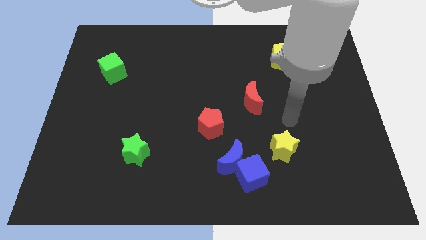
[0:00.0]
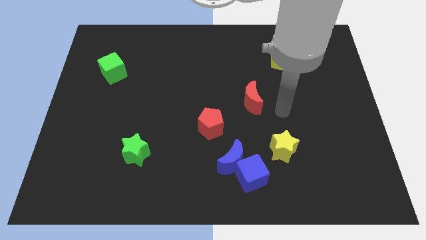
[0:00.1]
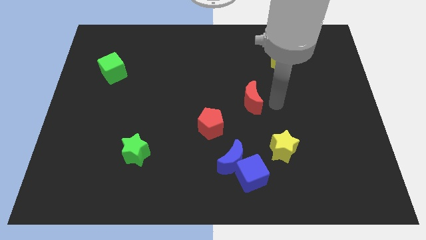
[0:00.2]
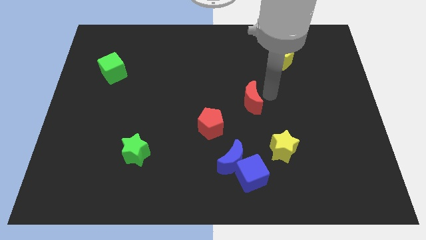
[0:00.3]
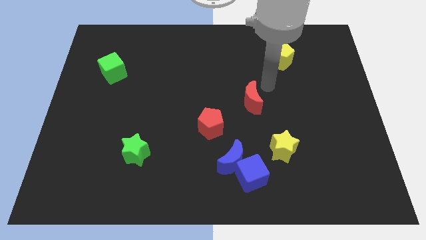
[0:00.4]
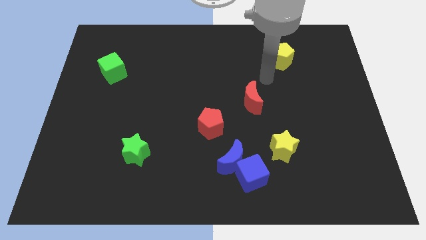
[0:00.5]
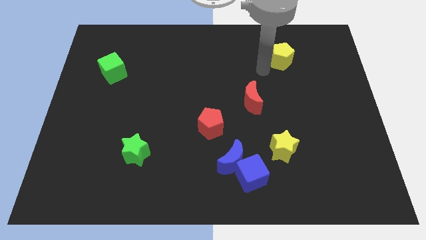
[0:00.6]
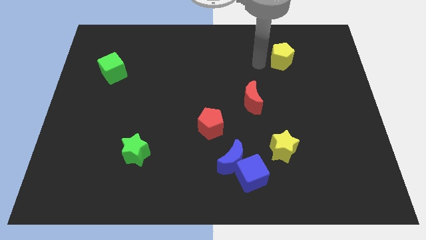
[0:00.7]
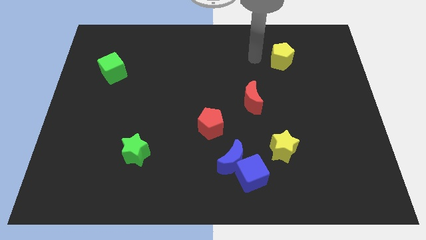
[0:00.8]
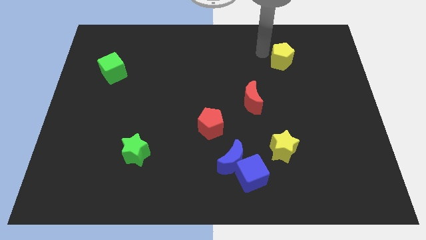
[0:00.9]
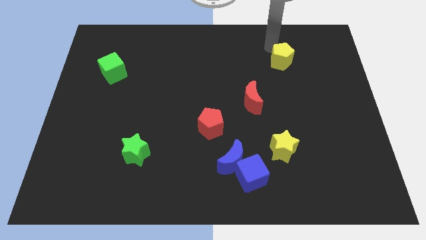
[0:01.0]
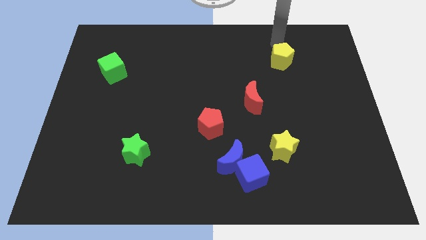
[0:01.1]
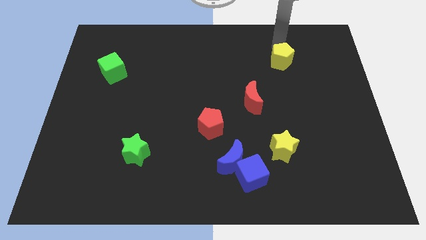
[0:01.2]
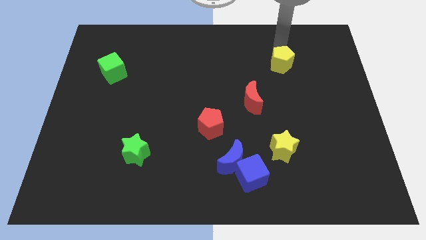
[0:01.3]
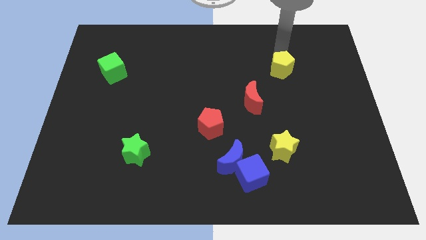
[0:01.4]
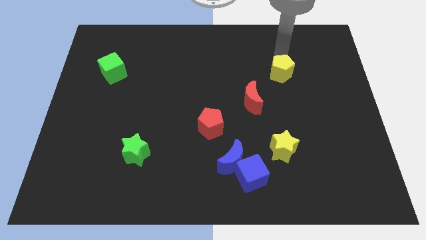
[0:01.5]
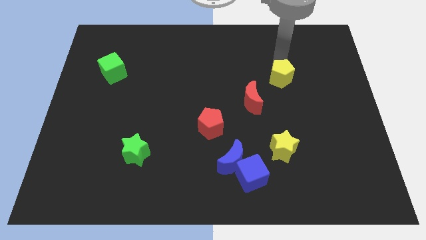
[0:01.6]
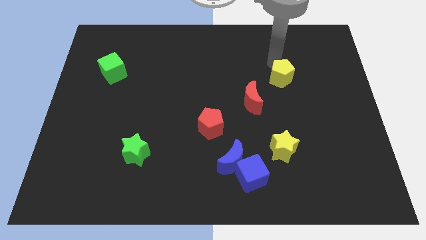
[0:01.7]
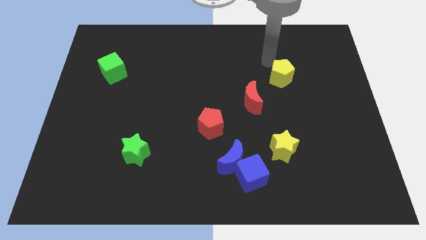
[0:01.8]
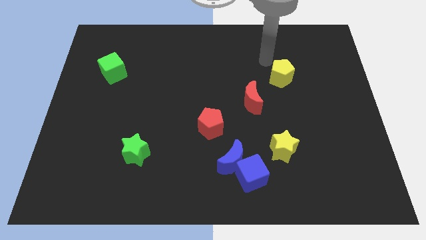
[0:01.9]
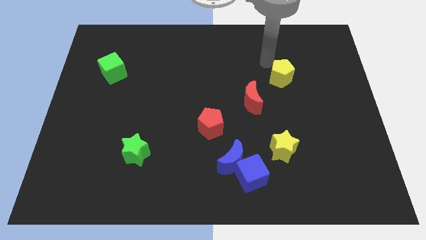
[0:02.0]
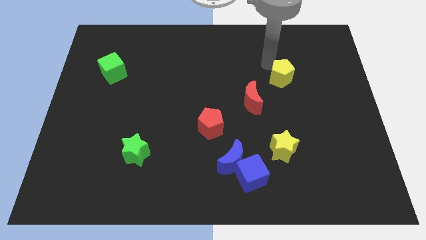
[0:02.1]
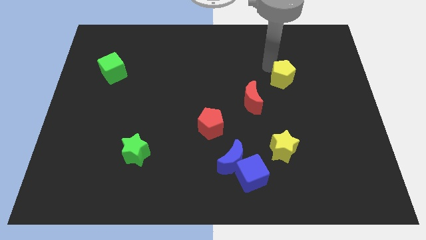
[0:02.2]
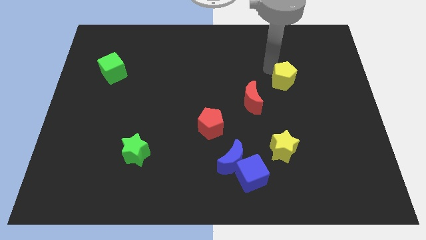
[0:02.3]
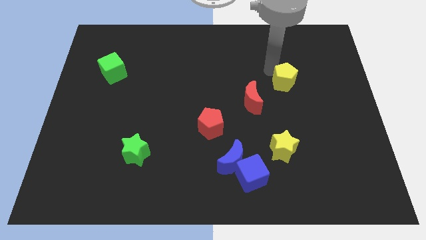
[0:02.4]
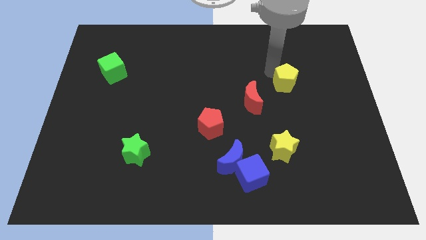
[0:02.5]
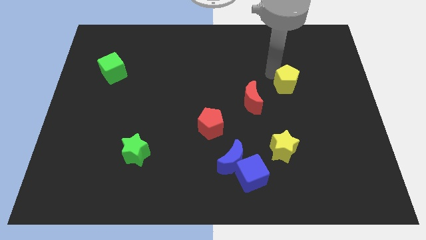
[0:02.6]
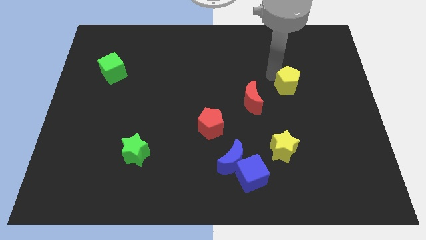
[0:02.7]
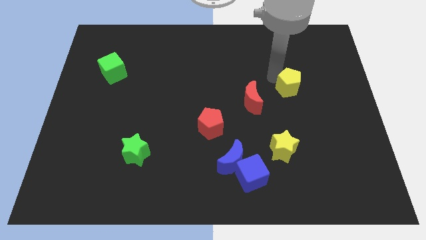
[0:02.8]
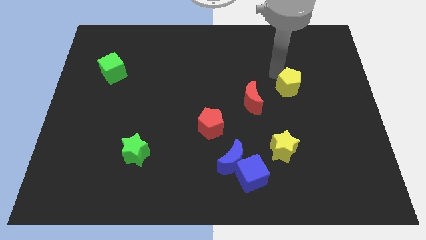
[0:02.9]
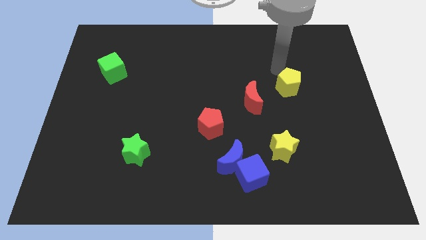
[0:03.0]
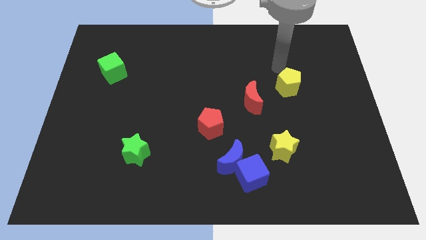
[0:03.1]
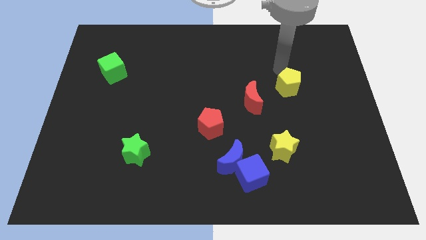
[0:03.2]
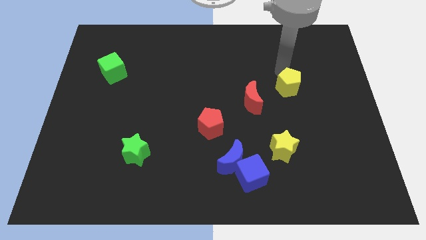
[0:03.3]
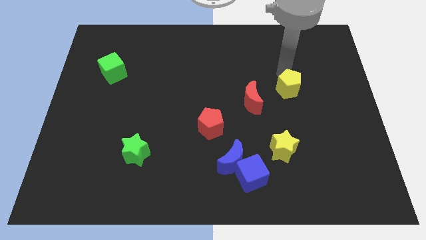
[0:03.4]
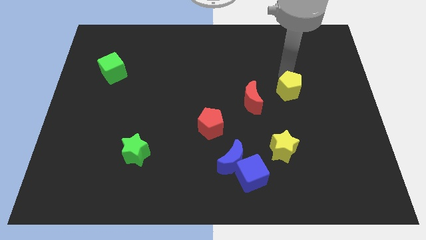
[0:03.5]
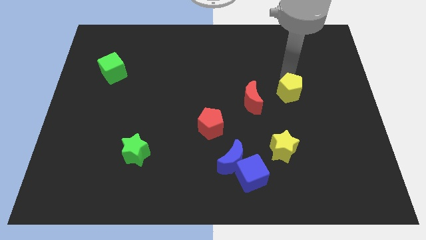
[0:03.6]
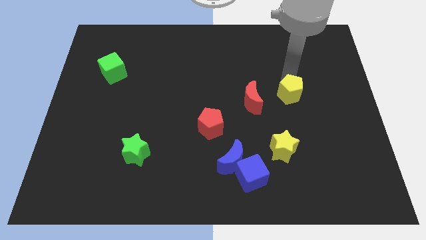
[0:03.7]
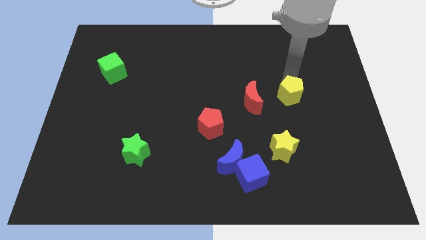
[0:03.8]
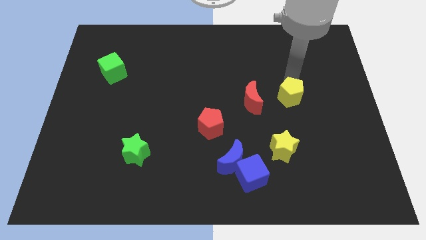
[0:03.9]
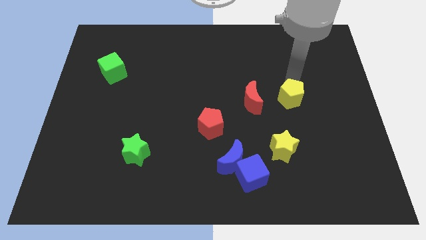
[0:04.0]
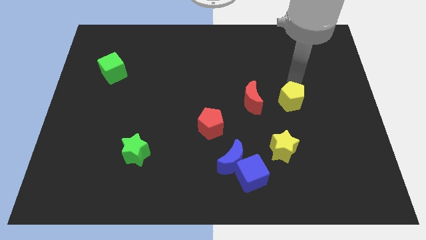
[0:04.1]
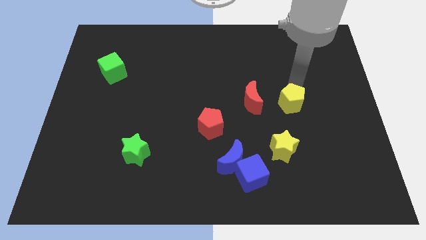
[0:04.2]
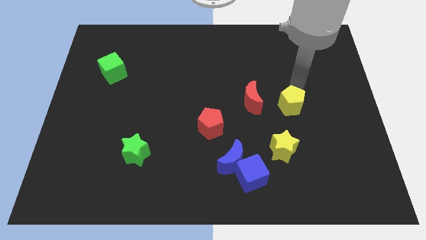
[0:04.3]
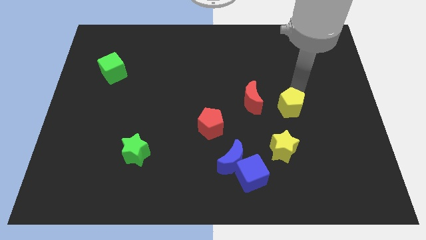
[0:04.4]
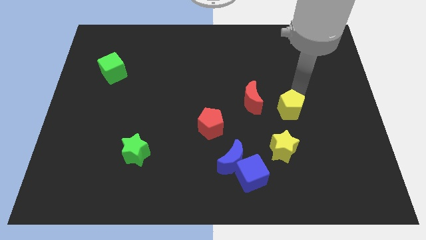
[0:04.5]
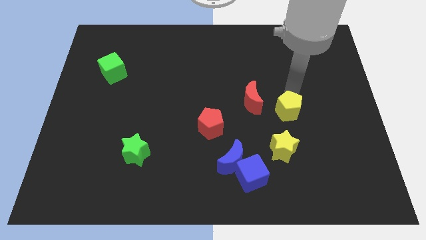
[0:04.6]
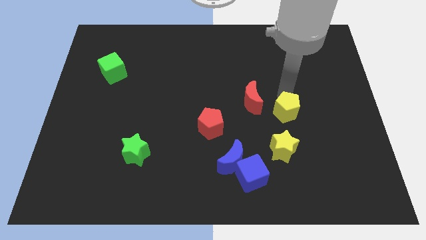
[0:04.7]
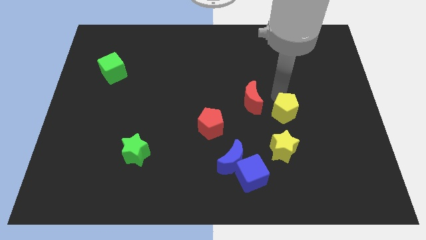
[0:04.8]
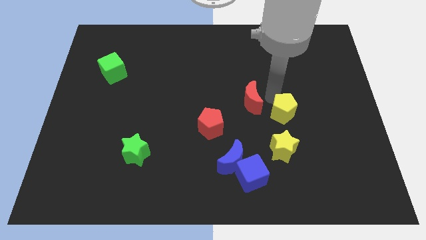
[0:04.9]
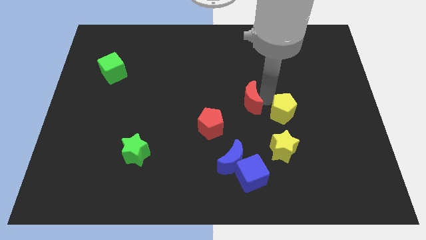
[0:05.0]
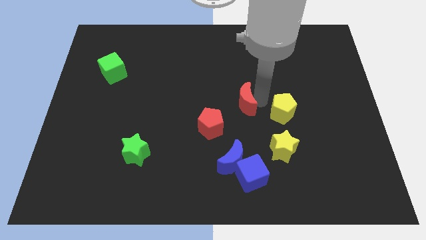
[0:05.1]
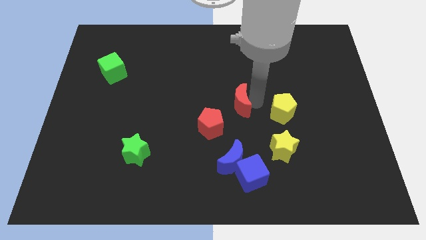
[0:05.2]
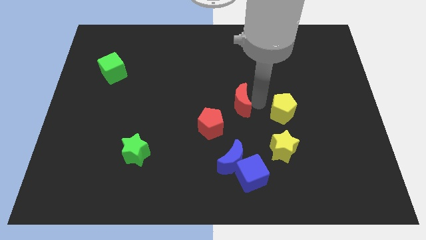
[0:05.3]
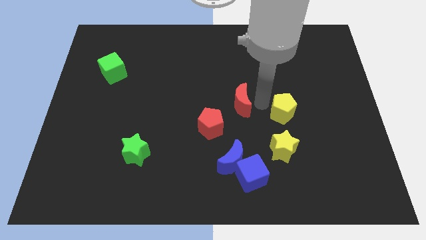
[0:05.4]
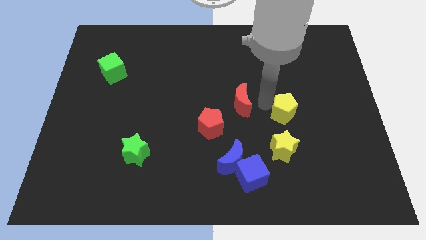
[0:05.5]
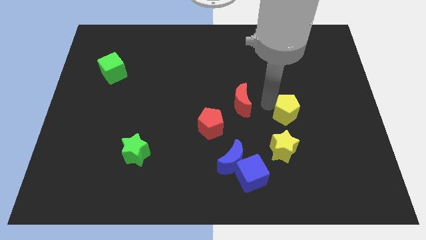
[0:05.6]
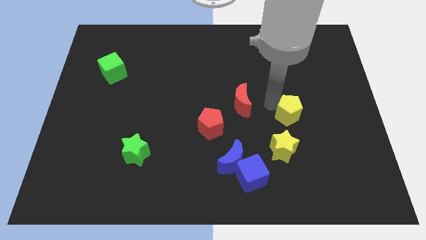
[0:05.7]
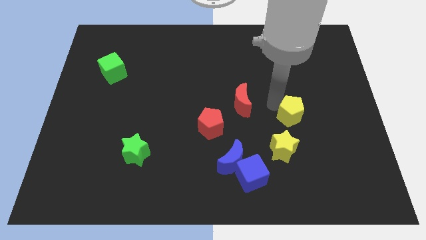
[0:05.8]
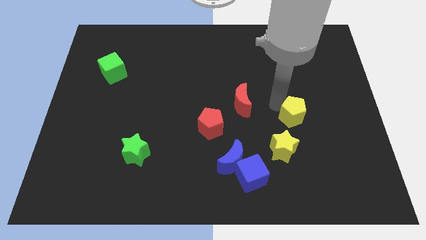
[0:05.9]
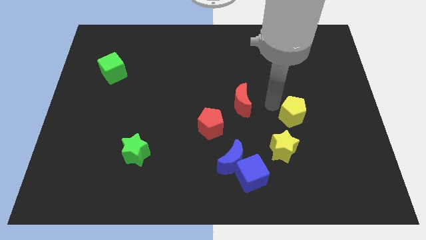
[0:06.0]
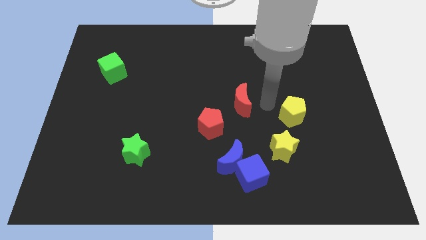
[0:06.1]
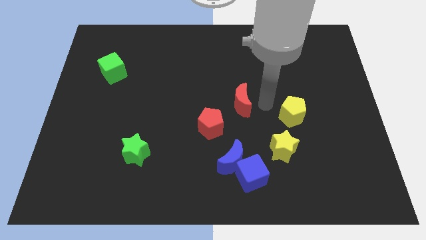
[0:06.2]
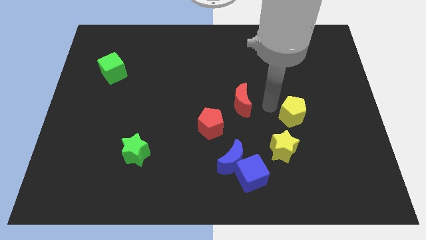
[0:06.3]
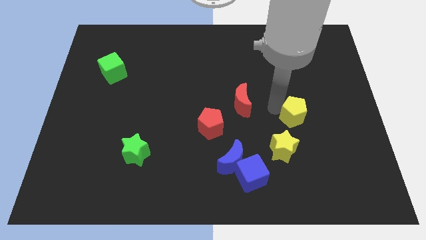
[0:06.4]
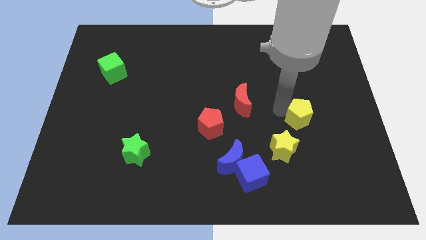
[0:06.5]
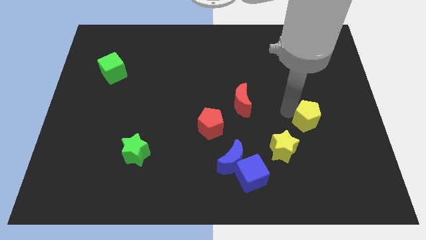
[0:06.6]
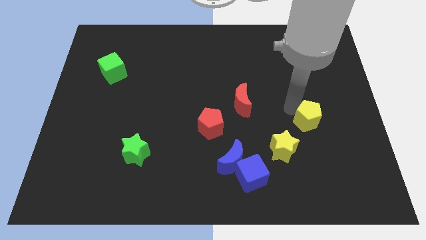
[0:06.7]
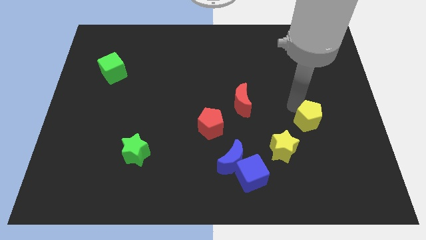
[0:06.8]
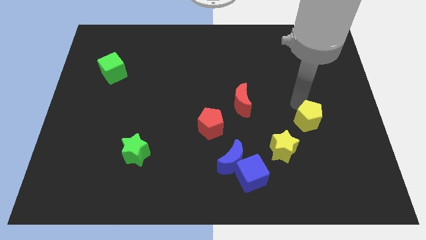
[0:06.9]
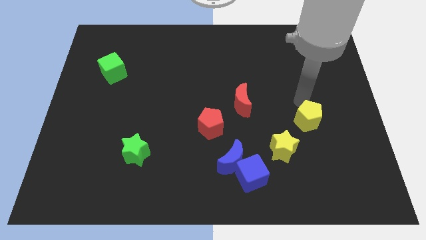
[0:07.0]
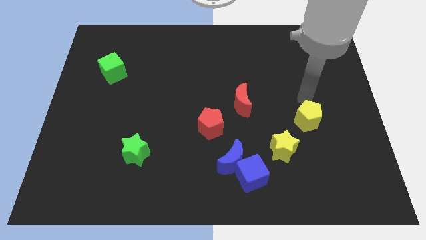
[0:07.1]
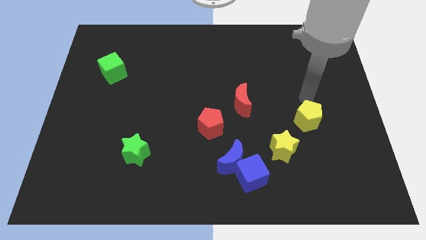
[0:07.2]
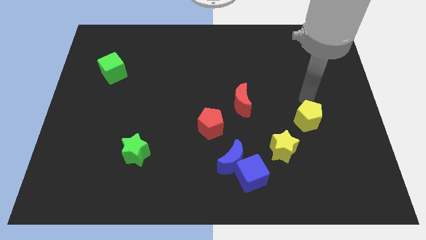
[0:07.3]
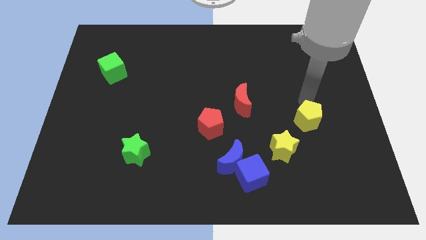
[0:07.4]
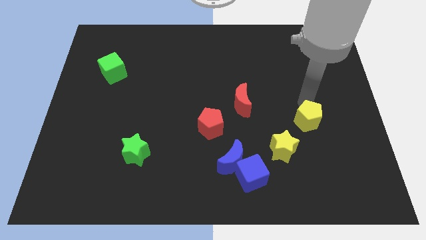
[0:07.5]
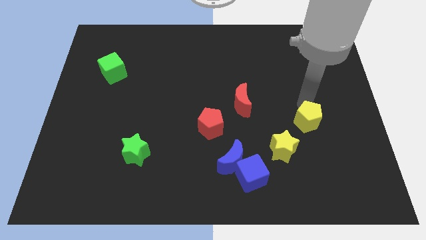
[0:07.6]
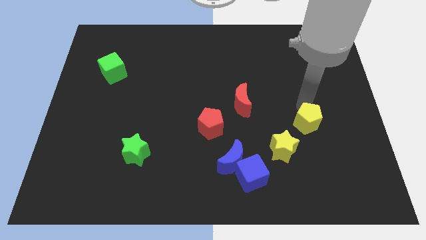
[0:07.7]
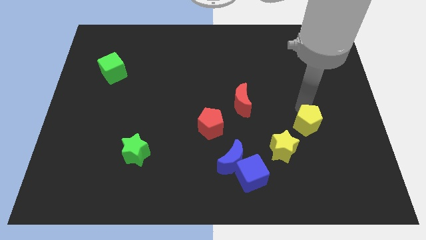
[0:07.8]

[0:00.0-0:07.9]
slide the yellow pentagon down

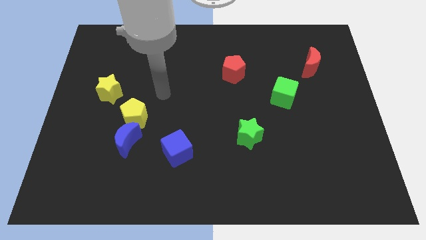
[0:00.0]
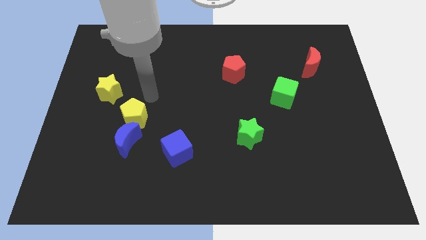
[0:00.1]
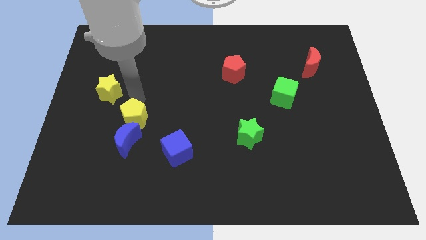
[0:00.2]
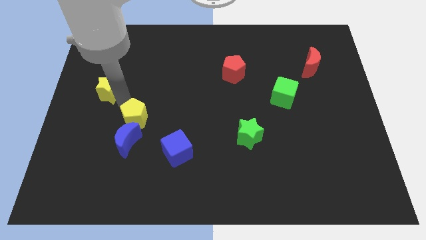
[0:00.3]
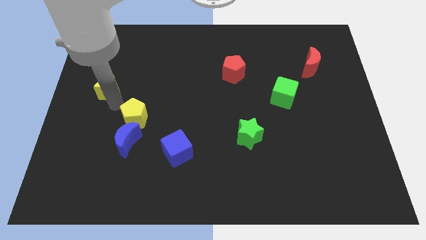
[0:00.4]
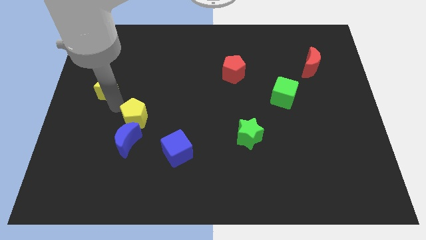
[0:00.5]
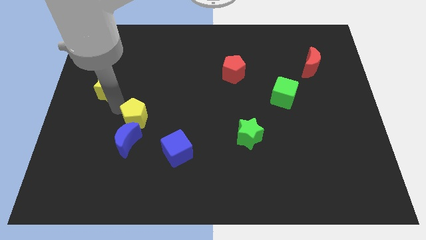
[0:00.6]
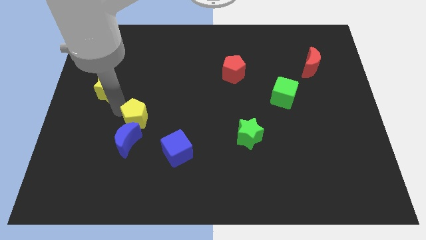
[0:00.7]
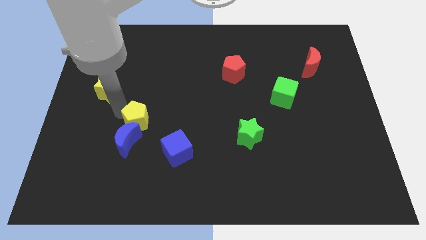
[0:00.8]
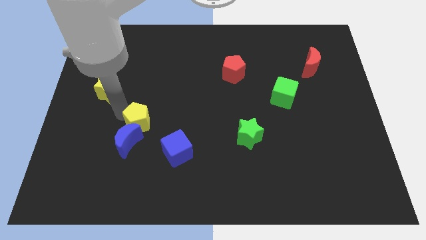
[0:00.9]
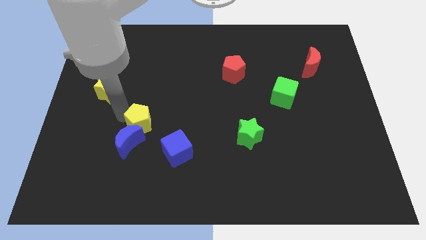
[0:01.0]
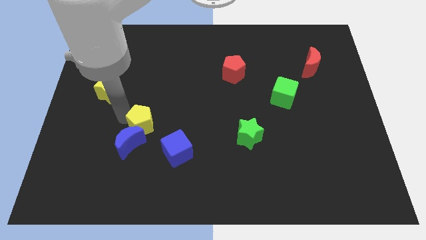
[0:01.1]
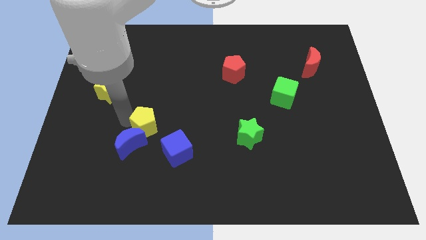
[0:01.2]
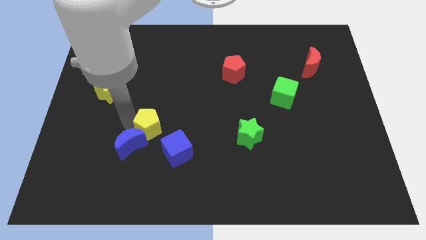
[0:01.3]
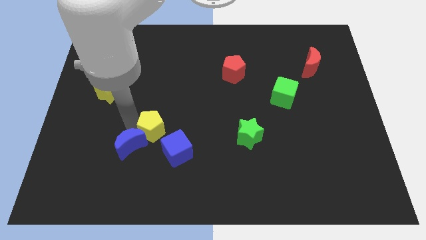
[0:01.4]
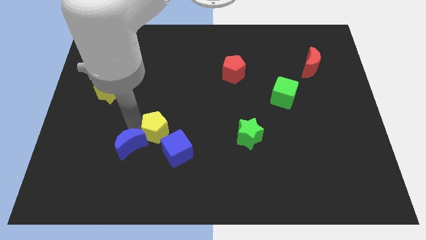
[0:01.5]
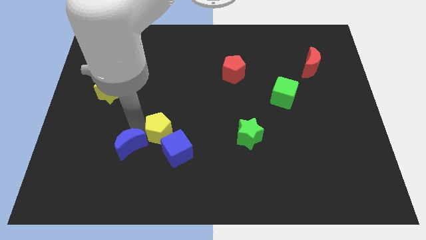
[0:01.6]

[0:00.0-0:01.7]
slide the yellow pentagon a little bit downwards and right
